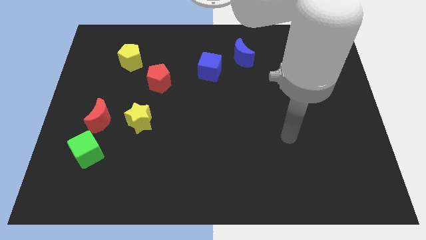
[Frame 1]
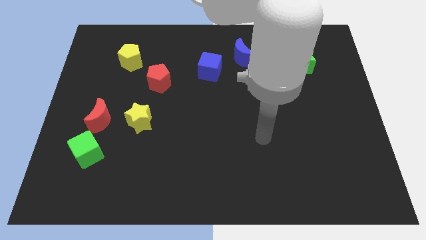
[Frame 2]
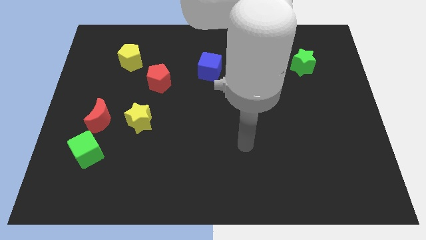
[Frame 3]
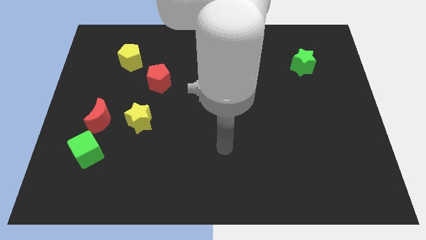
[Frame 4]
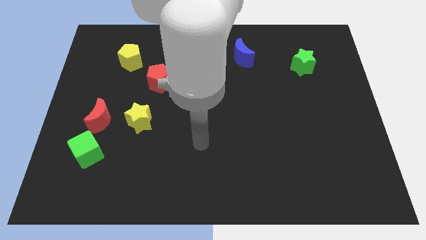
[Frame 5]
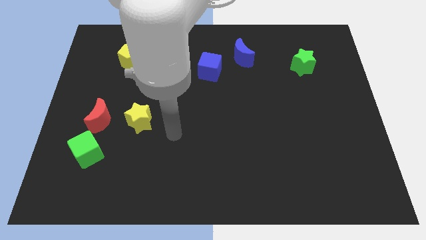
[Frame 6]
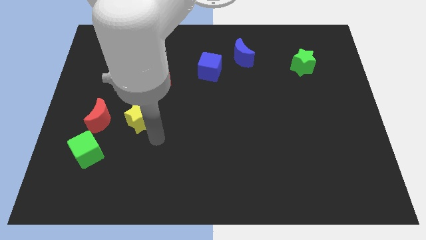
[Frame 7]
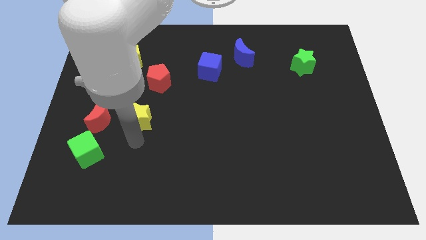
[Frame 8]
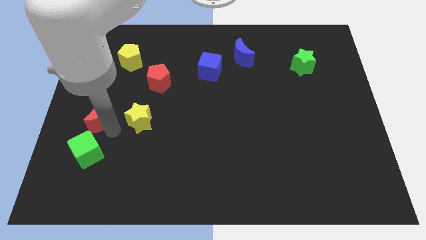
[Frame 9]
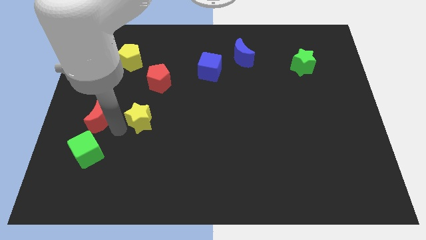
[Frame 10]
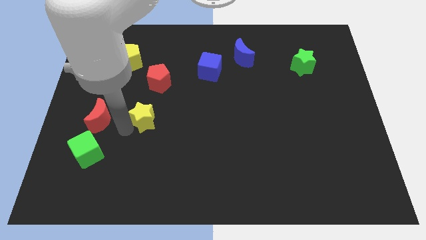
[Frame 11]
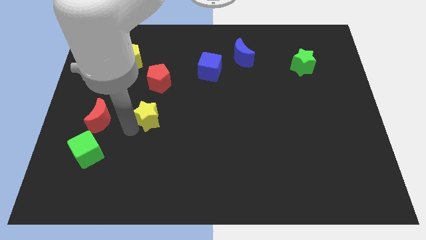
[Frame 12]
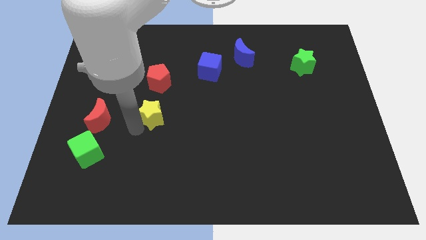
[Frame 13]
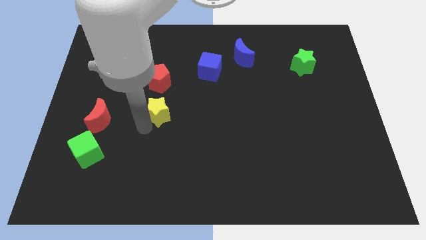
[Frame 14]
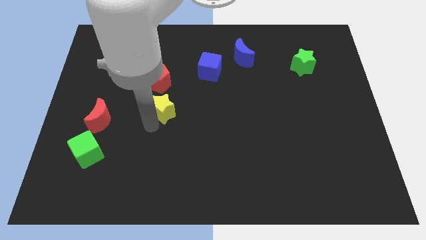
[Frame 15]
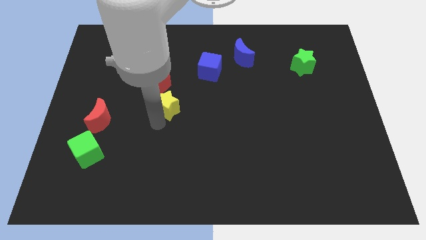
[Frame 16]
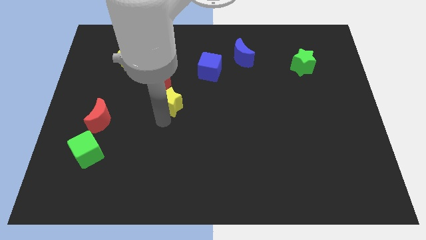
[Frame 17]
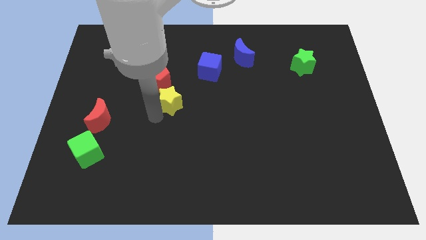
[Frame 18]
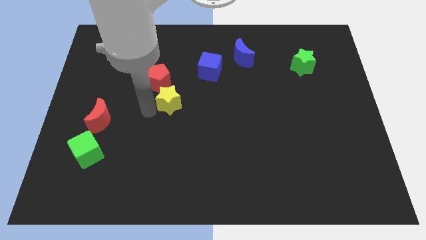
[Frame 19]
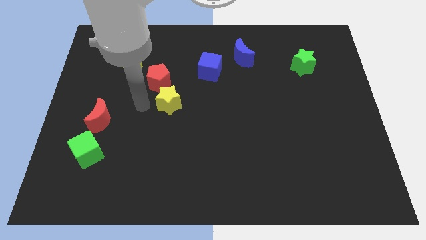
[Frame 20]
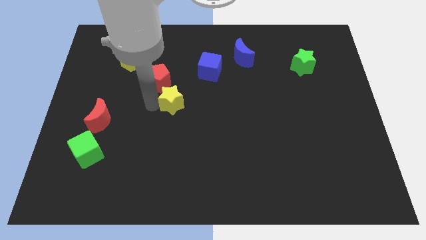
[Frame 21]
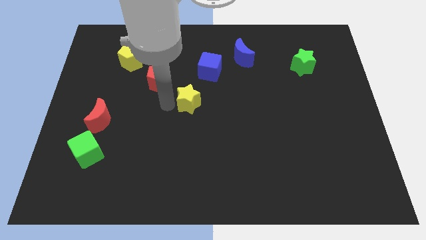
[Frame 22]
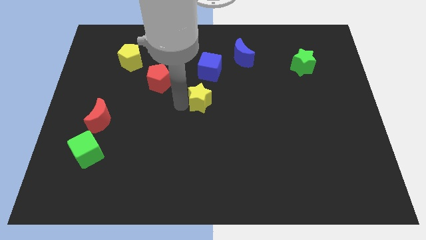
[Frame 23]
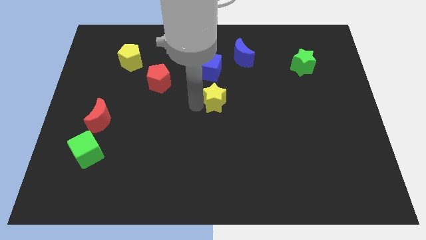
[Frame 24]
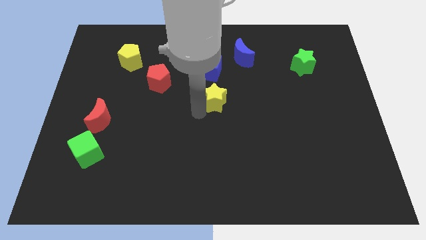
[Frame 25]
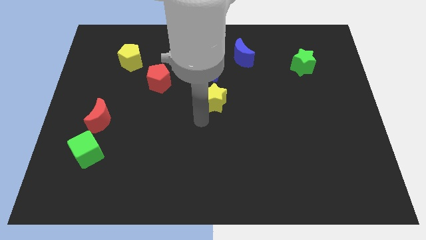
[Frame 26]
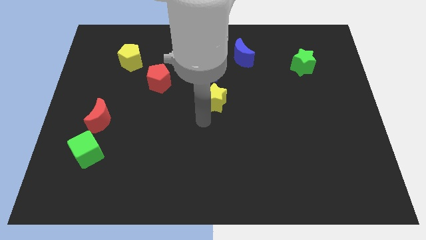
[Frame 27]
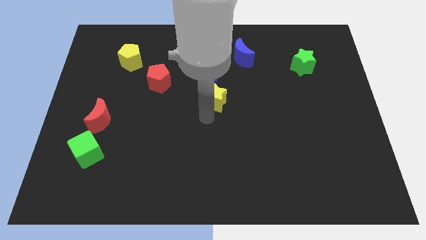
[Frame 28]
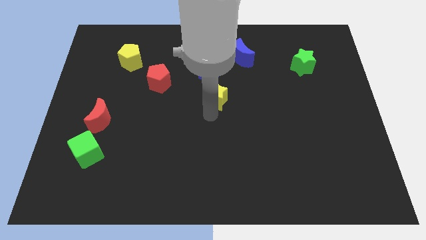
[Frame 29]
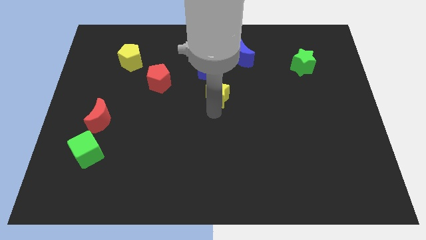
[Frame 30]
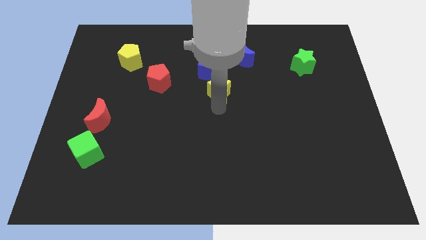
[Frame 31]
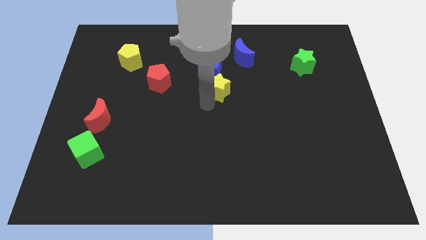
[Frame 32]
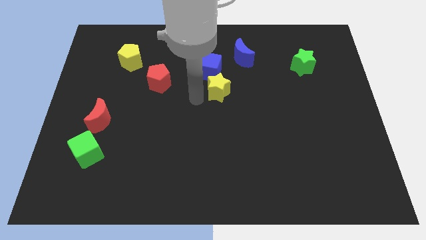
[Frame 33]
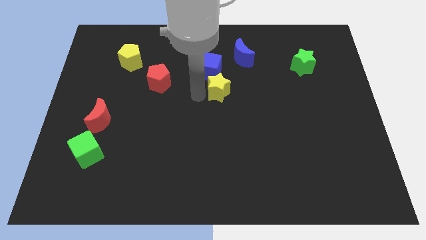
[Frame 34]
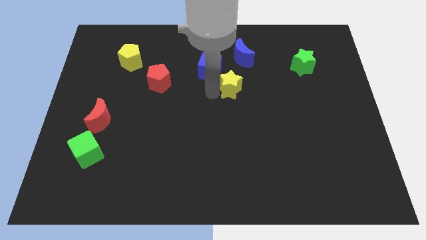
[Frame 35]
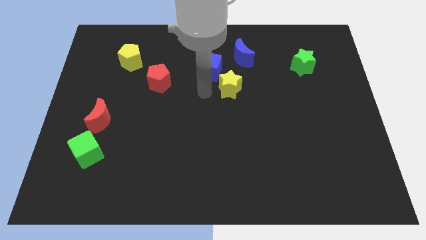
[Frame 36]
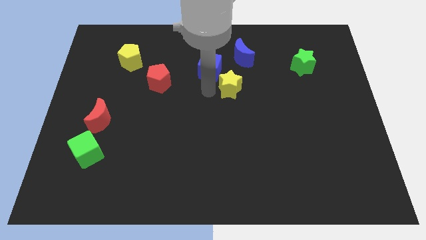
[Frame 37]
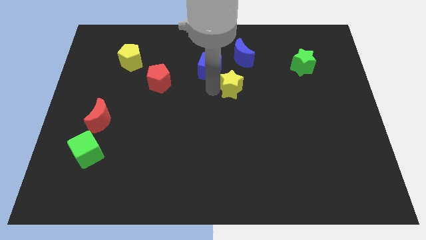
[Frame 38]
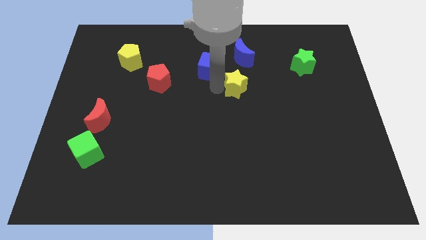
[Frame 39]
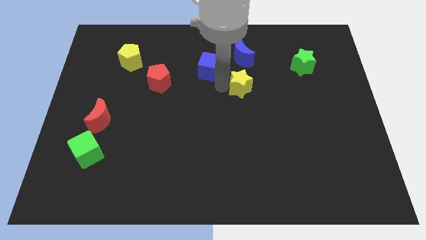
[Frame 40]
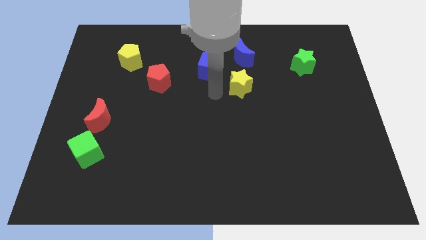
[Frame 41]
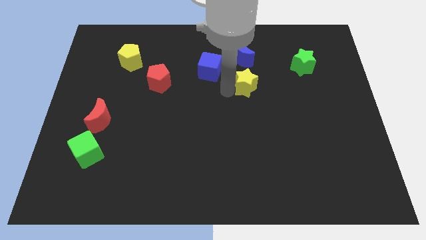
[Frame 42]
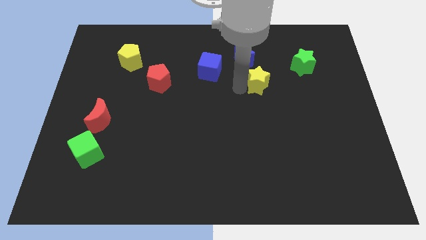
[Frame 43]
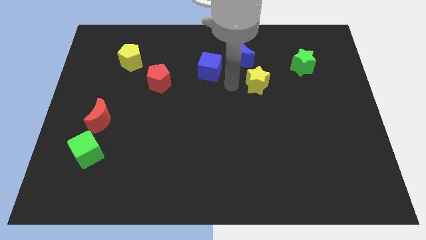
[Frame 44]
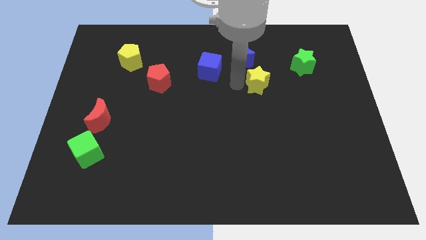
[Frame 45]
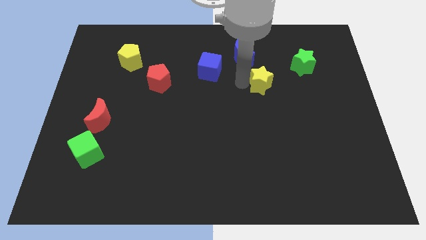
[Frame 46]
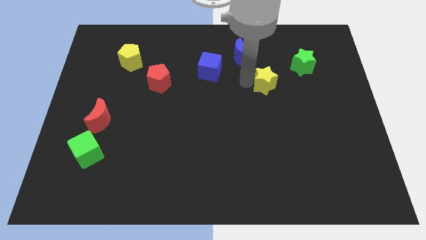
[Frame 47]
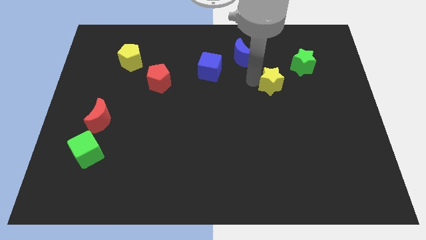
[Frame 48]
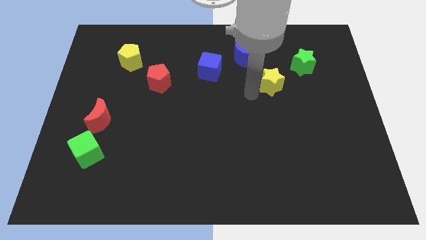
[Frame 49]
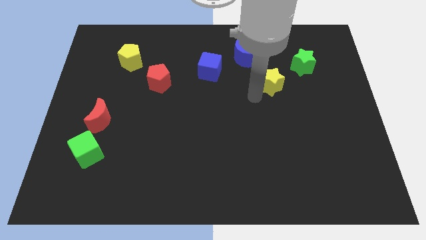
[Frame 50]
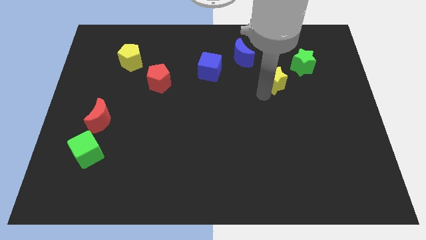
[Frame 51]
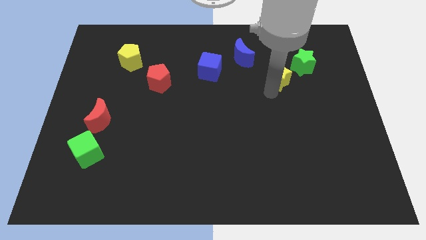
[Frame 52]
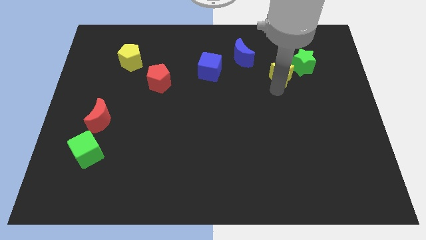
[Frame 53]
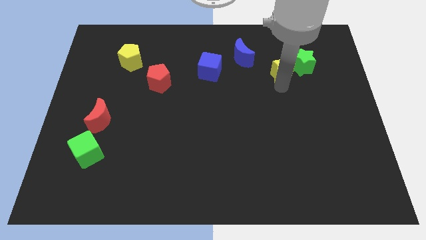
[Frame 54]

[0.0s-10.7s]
push the yellow star next to the green star

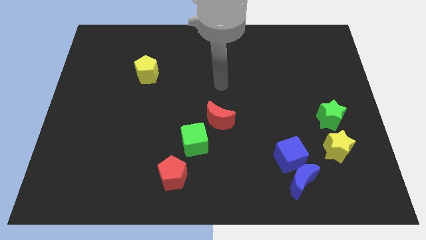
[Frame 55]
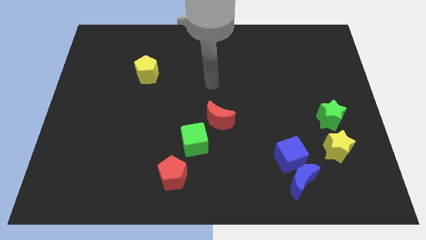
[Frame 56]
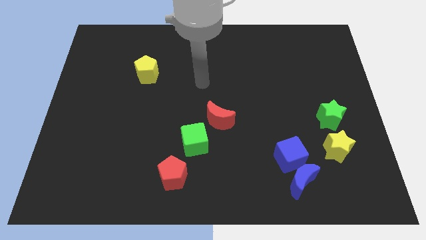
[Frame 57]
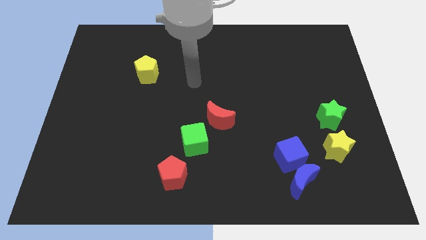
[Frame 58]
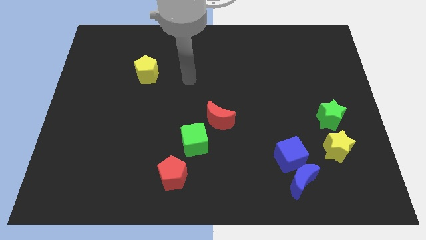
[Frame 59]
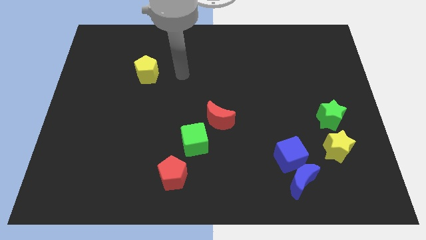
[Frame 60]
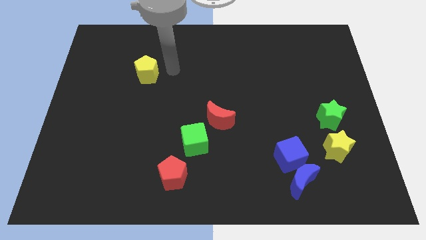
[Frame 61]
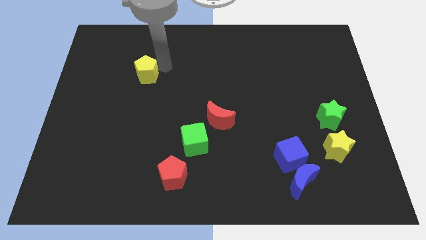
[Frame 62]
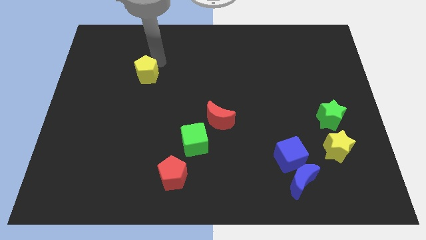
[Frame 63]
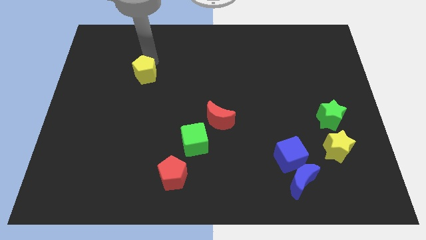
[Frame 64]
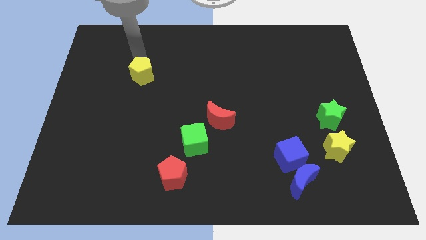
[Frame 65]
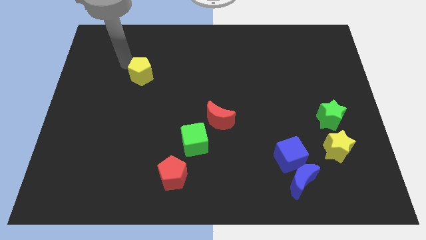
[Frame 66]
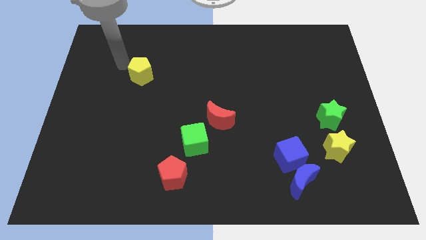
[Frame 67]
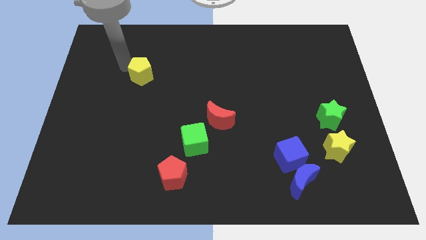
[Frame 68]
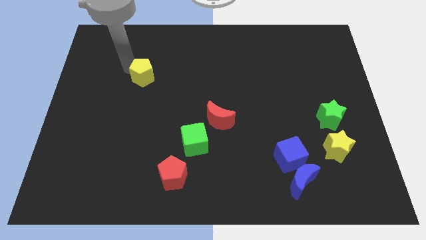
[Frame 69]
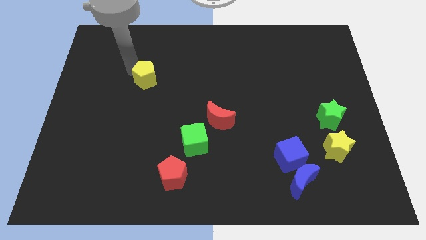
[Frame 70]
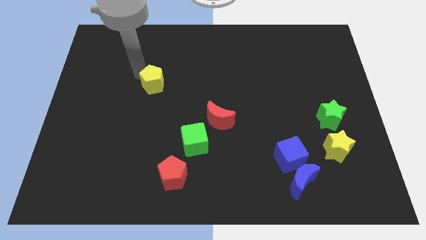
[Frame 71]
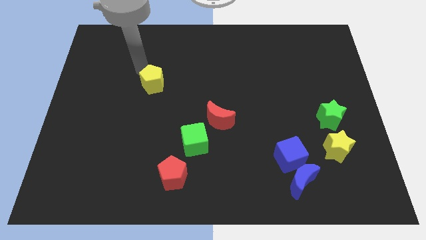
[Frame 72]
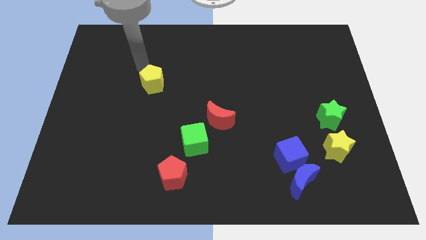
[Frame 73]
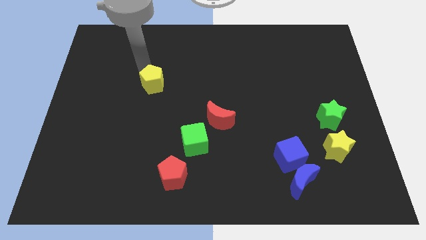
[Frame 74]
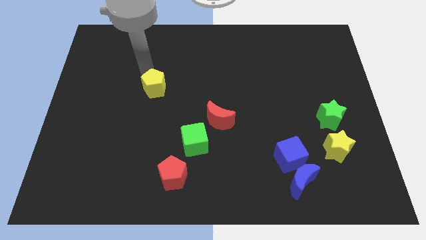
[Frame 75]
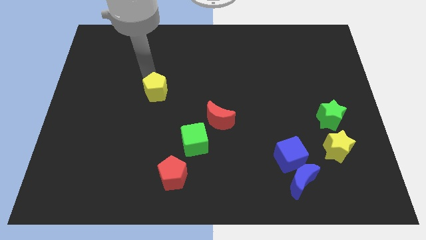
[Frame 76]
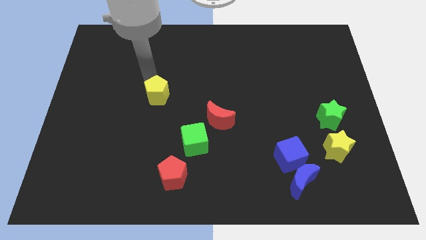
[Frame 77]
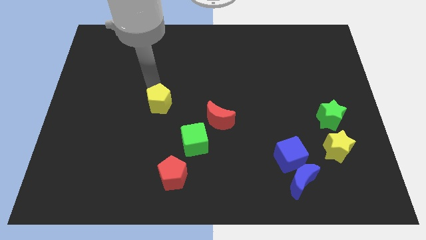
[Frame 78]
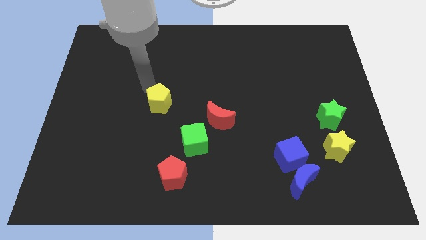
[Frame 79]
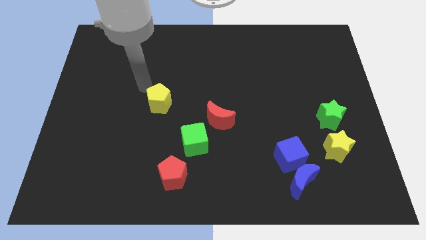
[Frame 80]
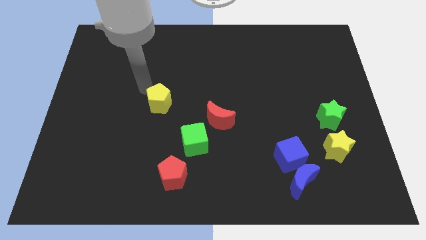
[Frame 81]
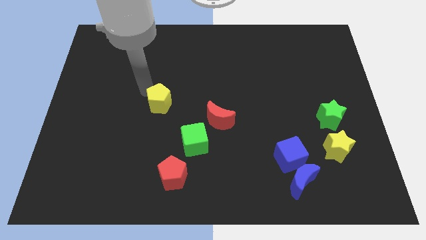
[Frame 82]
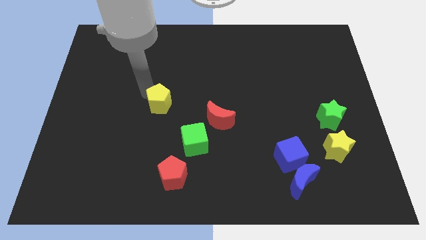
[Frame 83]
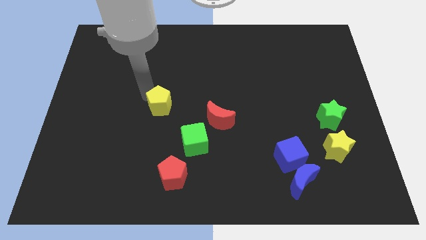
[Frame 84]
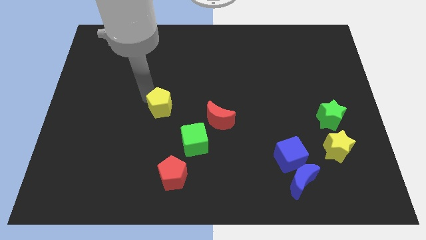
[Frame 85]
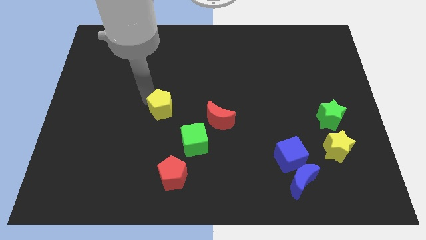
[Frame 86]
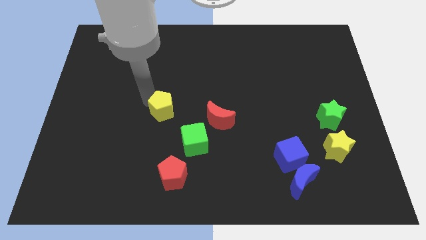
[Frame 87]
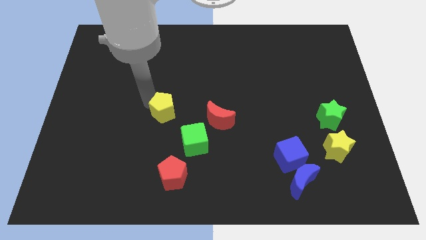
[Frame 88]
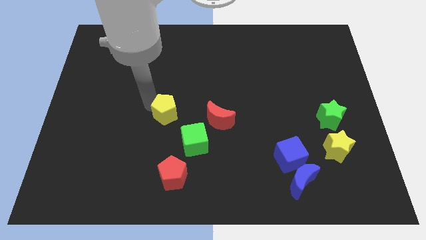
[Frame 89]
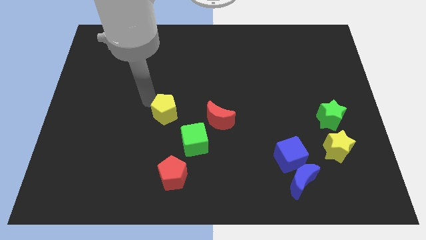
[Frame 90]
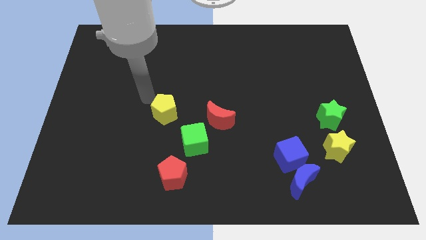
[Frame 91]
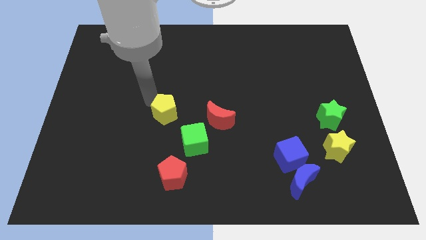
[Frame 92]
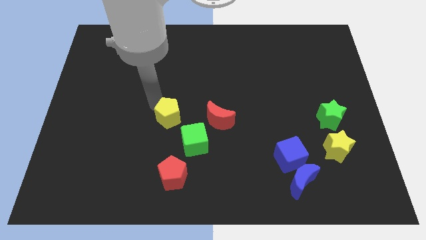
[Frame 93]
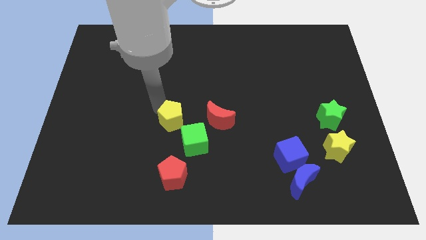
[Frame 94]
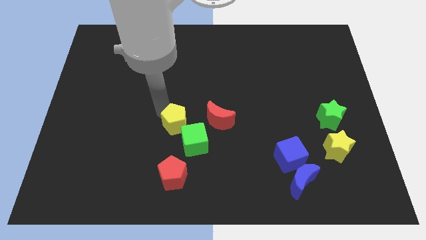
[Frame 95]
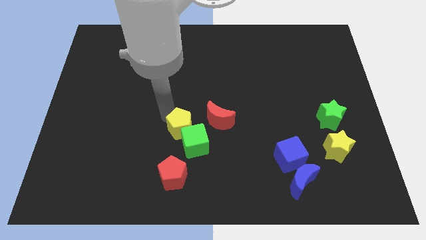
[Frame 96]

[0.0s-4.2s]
move the yellow pentagon to the green cube
